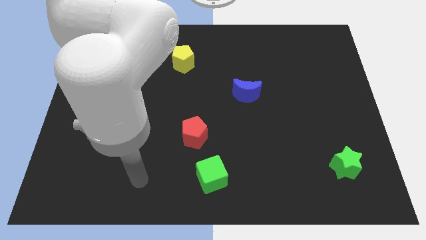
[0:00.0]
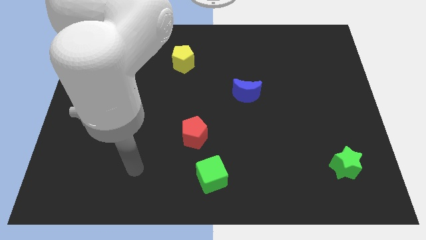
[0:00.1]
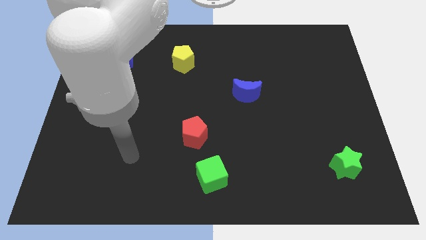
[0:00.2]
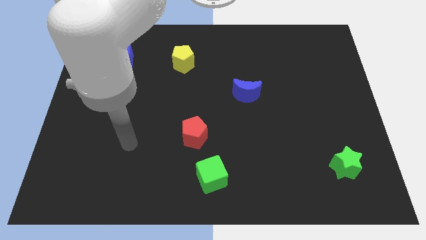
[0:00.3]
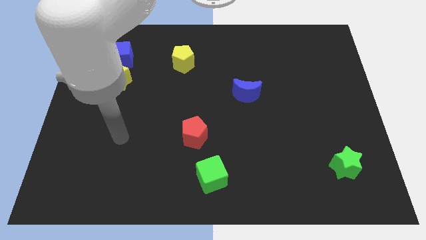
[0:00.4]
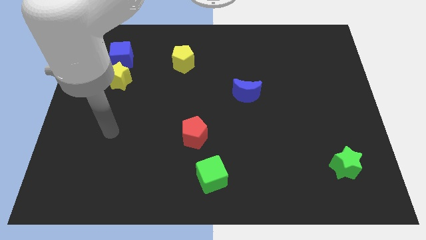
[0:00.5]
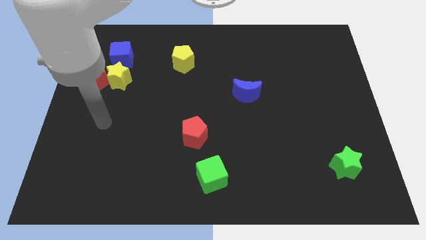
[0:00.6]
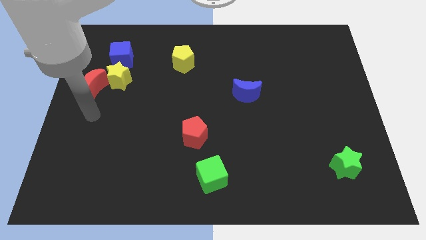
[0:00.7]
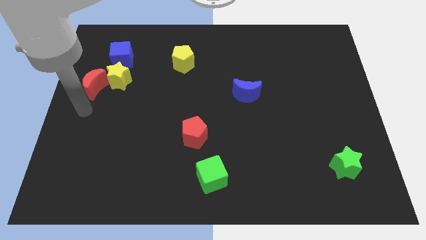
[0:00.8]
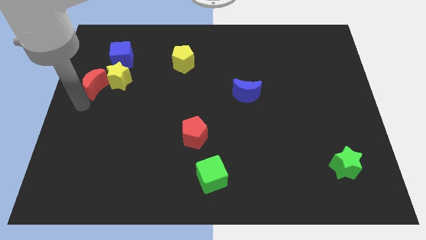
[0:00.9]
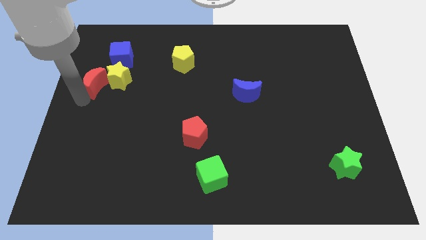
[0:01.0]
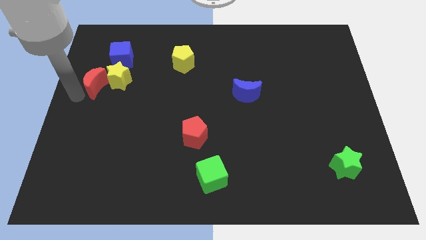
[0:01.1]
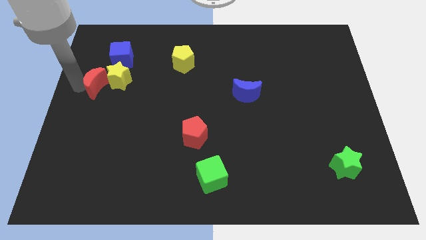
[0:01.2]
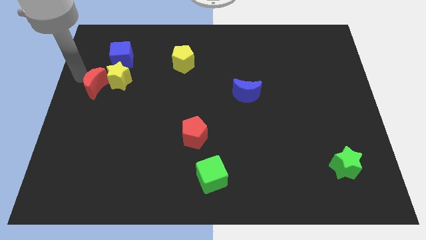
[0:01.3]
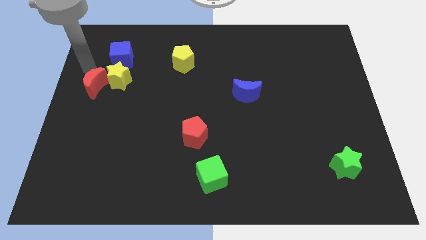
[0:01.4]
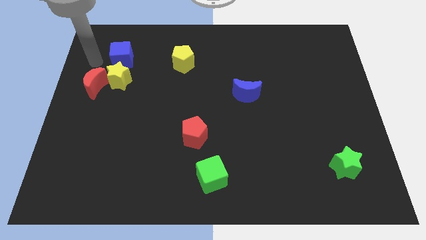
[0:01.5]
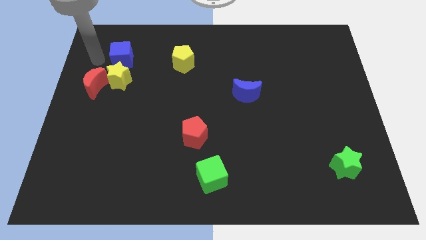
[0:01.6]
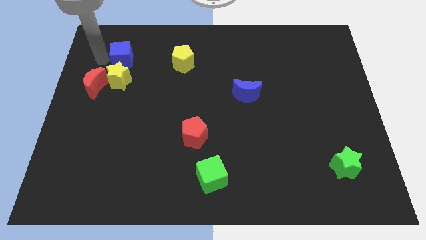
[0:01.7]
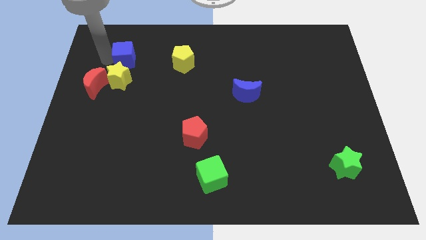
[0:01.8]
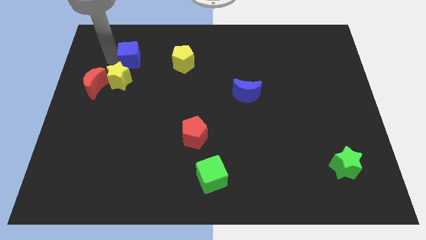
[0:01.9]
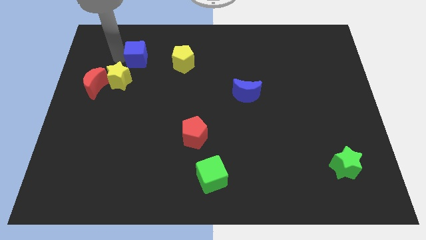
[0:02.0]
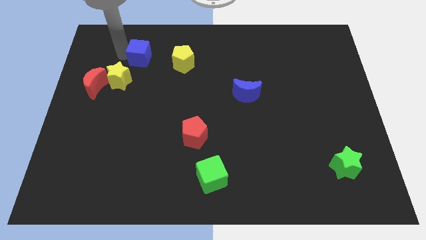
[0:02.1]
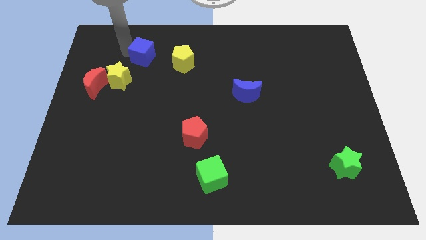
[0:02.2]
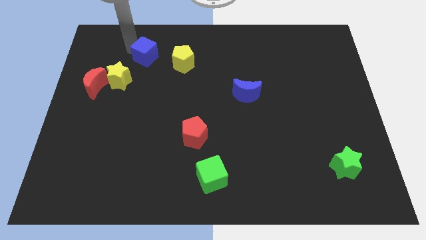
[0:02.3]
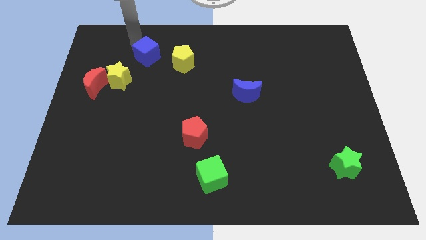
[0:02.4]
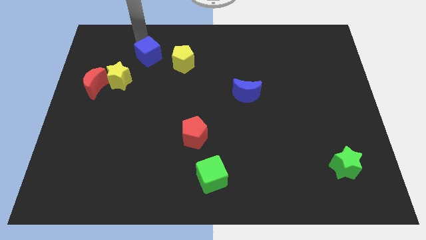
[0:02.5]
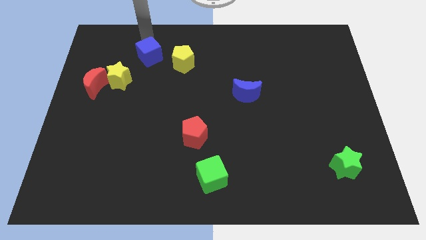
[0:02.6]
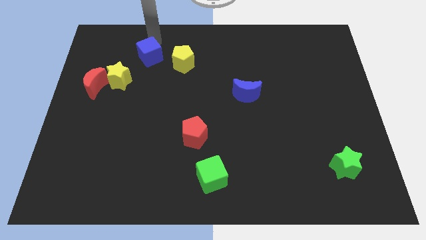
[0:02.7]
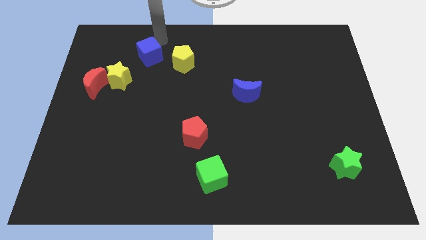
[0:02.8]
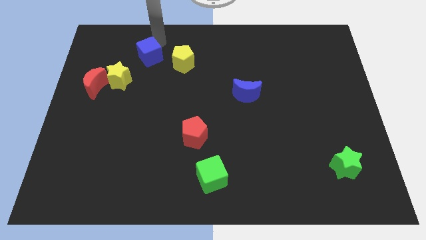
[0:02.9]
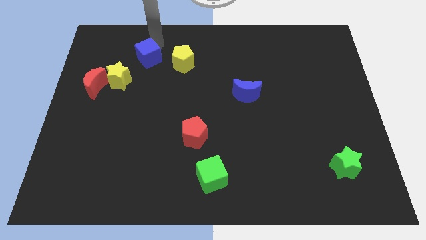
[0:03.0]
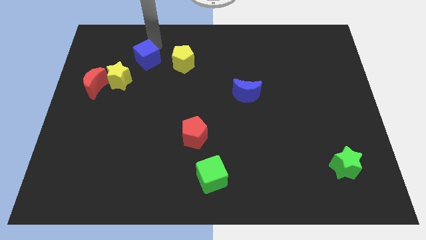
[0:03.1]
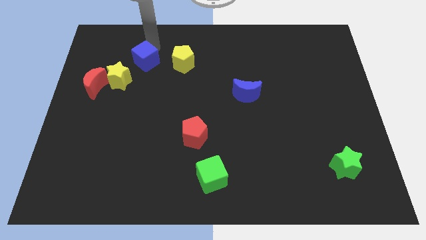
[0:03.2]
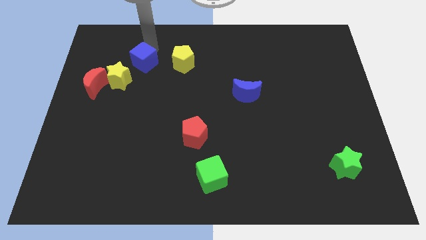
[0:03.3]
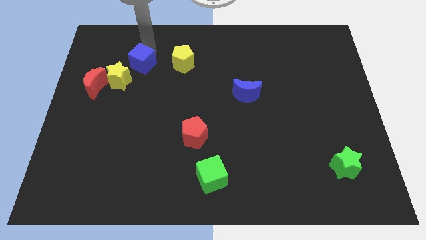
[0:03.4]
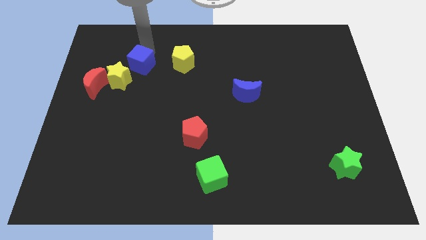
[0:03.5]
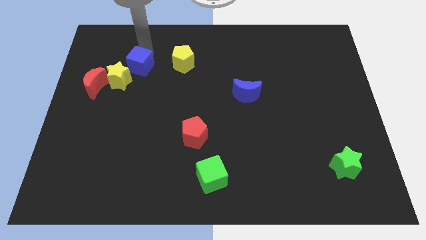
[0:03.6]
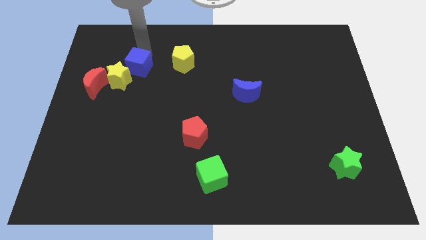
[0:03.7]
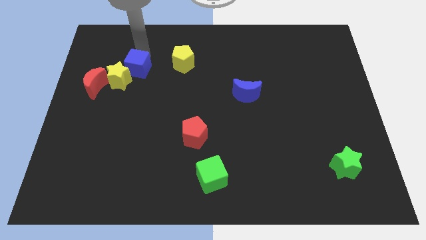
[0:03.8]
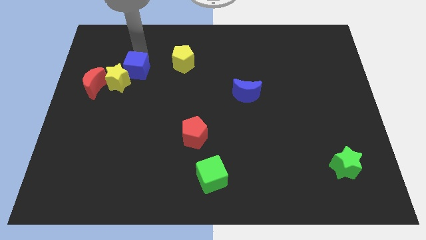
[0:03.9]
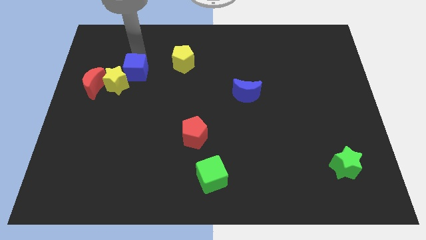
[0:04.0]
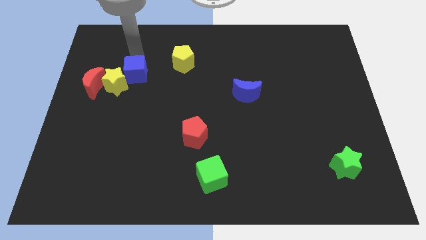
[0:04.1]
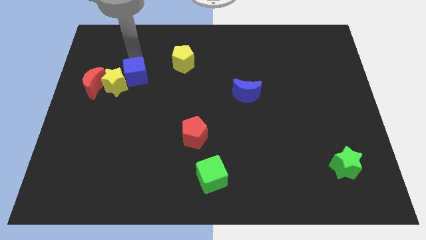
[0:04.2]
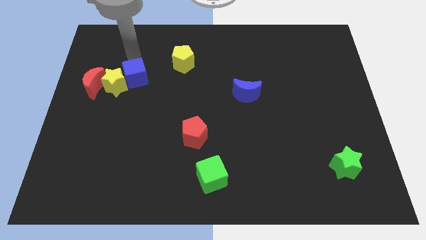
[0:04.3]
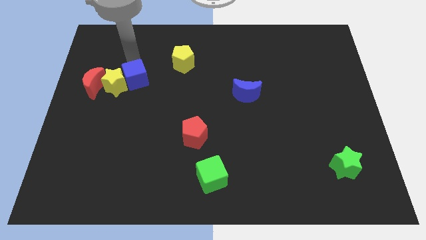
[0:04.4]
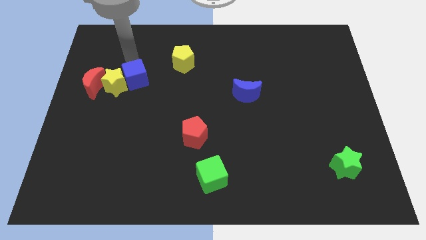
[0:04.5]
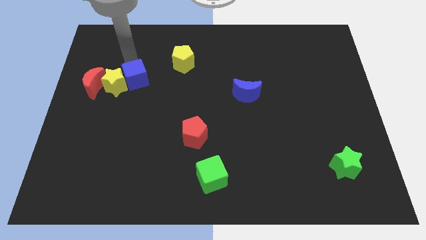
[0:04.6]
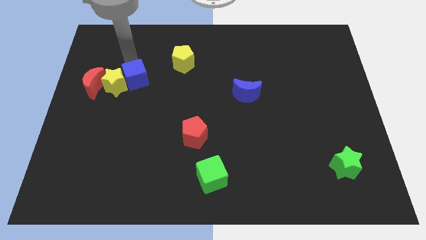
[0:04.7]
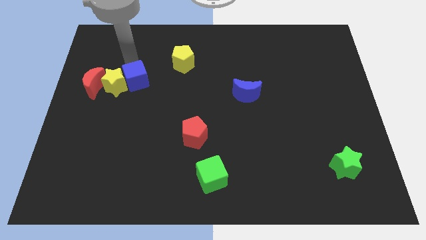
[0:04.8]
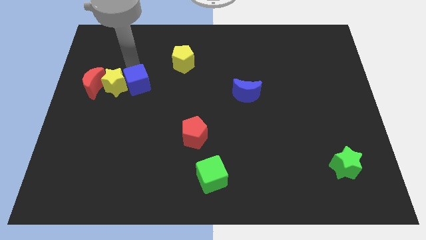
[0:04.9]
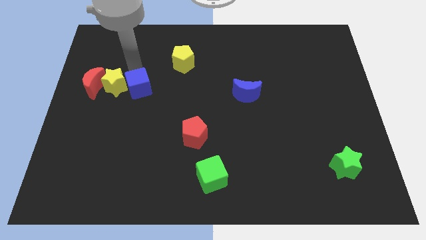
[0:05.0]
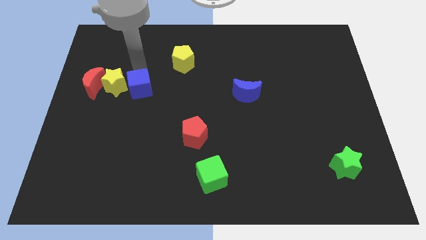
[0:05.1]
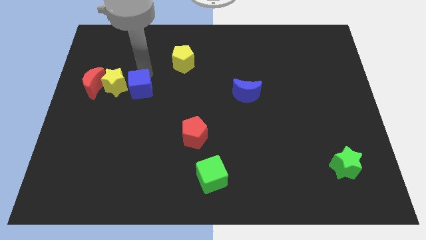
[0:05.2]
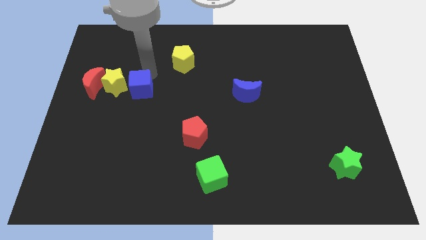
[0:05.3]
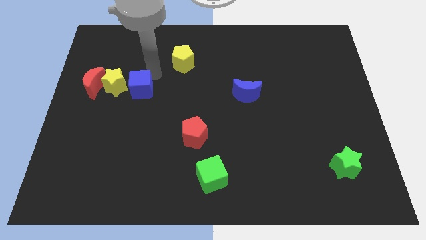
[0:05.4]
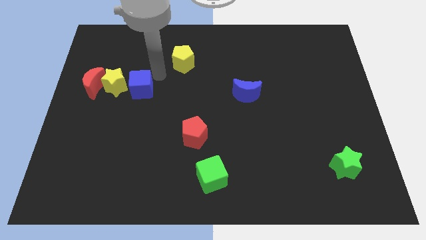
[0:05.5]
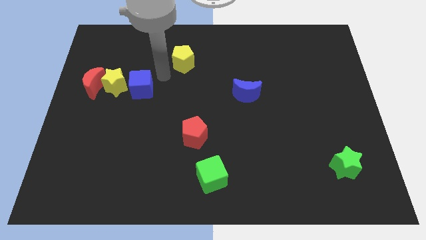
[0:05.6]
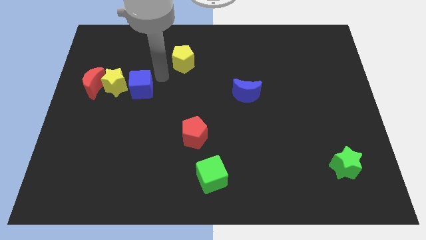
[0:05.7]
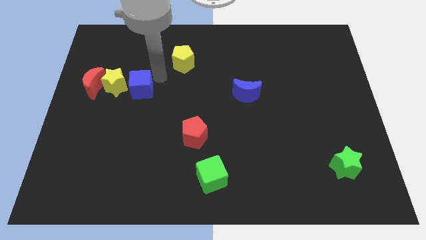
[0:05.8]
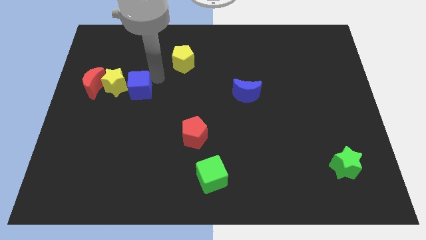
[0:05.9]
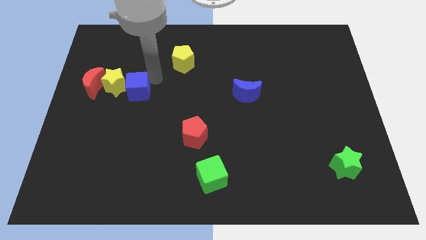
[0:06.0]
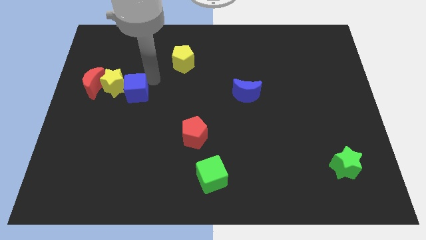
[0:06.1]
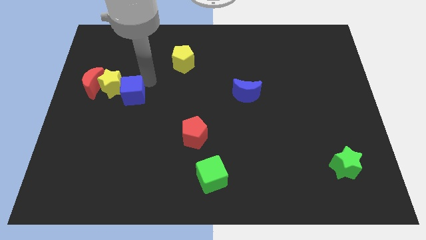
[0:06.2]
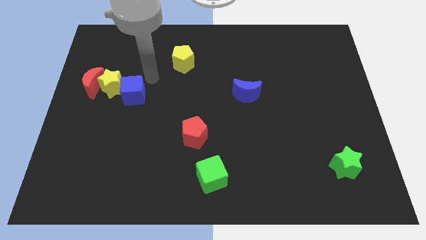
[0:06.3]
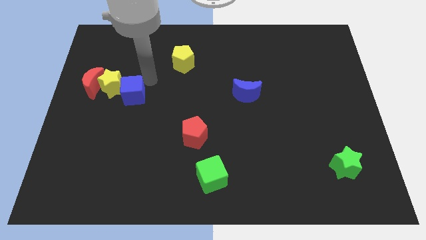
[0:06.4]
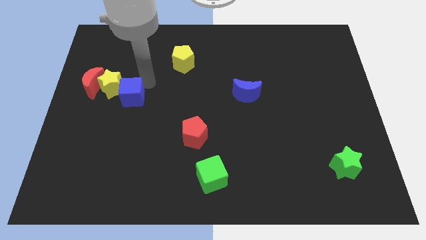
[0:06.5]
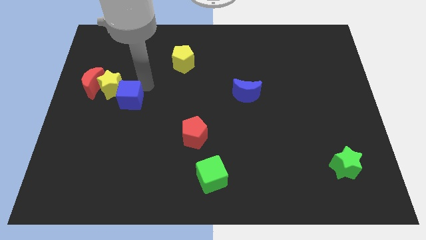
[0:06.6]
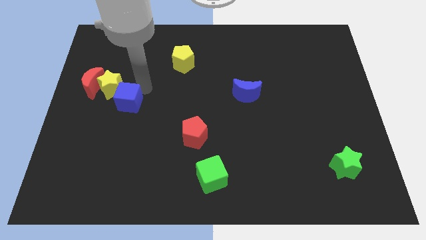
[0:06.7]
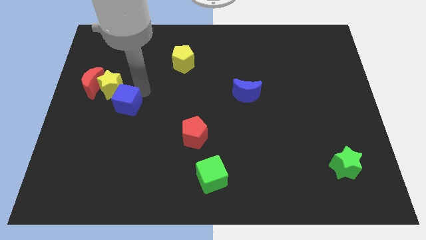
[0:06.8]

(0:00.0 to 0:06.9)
move the blue cube below the yellow star
